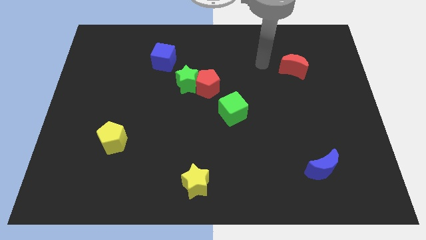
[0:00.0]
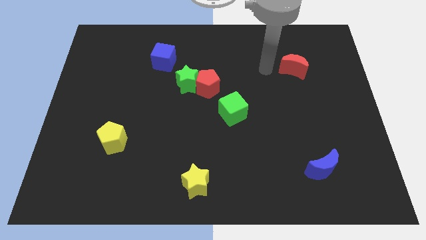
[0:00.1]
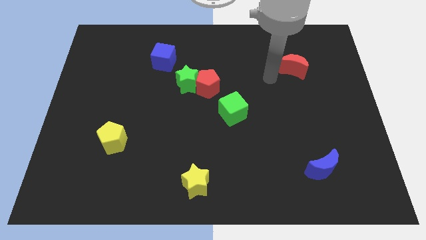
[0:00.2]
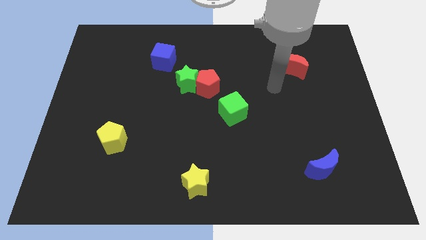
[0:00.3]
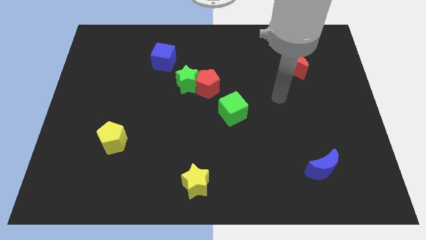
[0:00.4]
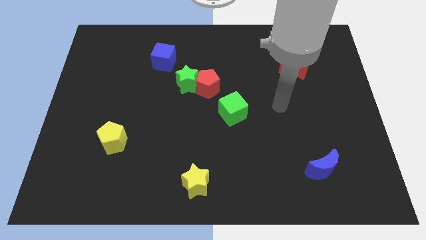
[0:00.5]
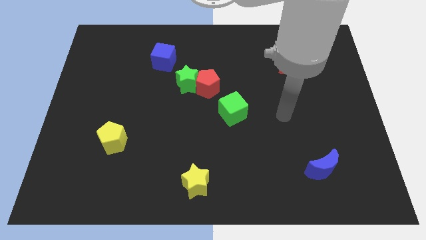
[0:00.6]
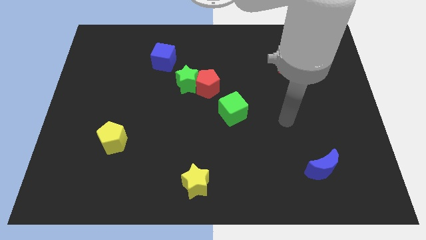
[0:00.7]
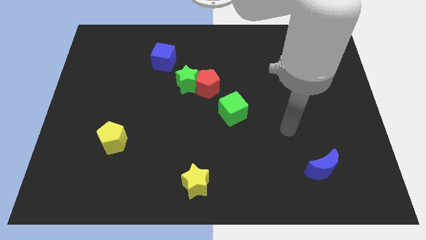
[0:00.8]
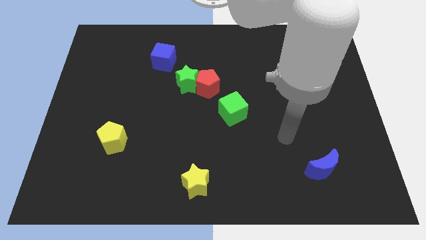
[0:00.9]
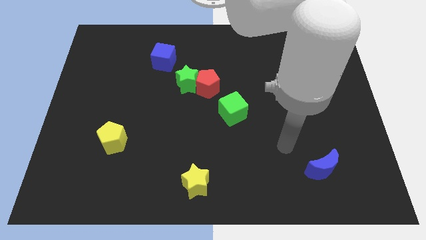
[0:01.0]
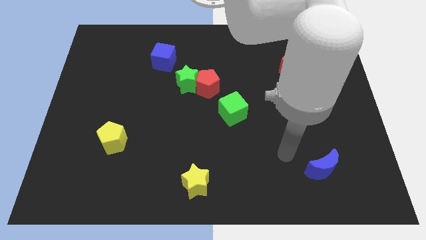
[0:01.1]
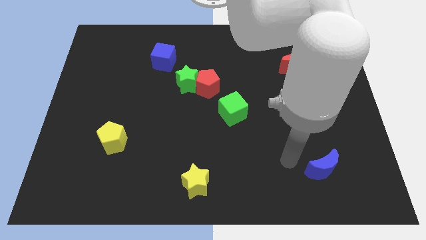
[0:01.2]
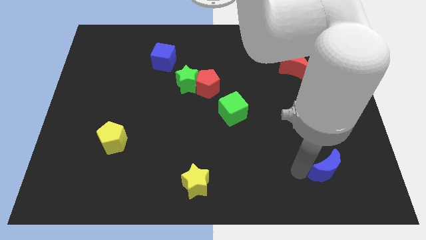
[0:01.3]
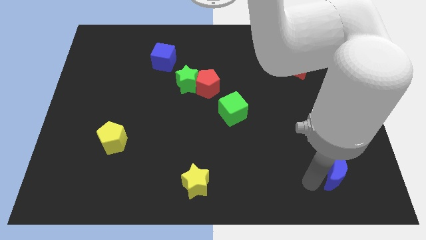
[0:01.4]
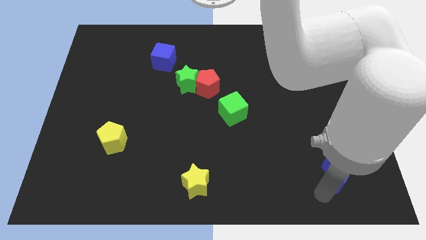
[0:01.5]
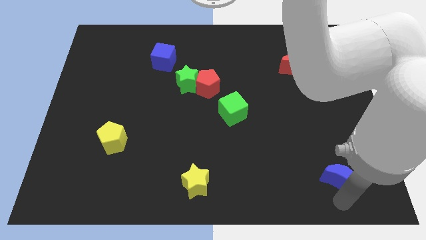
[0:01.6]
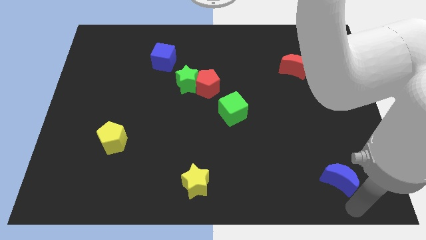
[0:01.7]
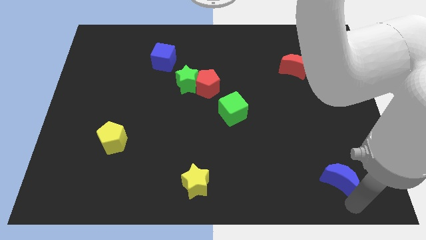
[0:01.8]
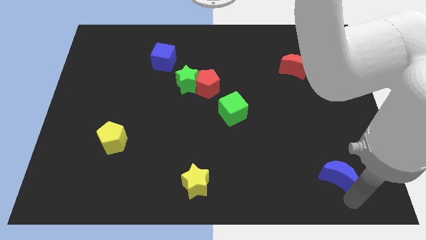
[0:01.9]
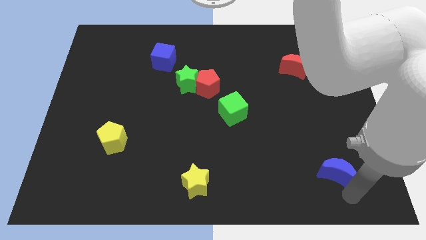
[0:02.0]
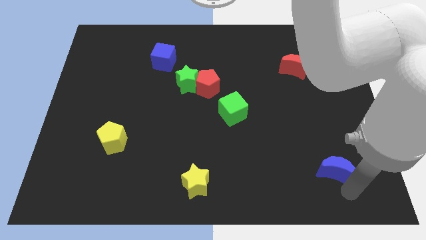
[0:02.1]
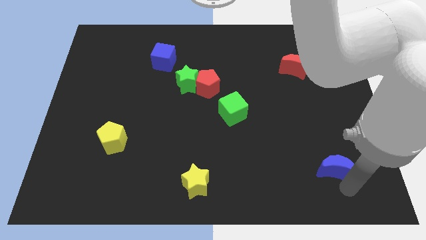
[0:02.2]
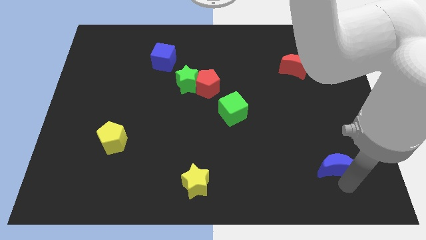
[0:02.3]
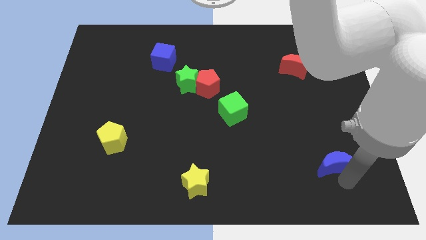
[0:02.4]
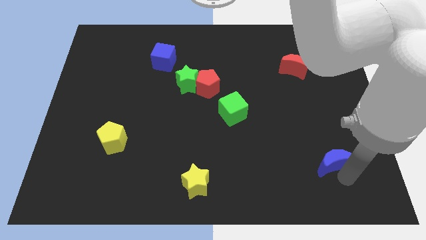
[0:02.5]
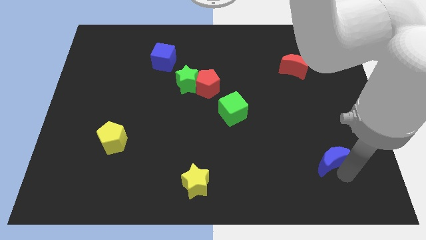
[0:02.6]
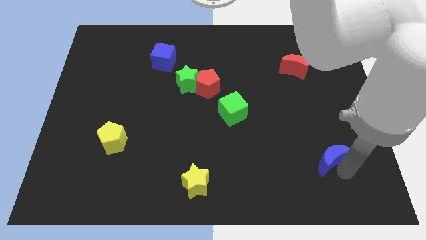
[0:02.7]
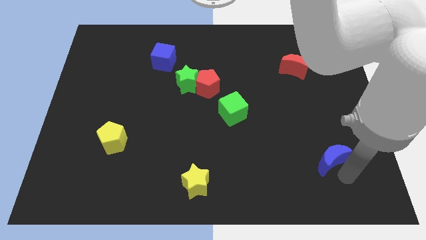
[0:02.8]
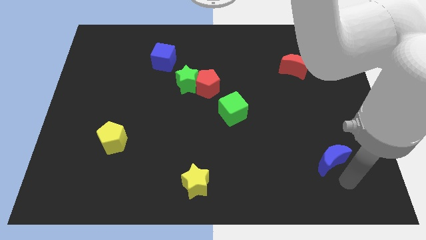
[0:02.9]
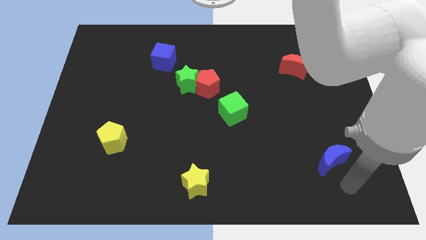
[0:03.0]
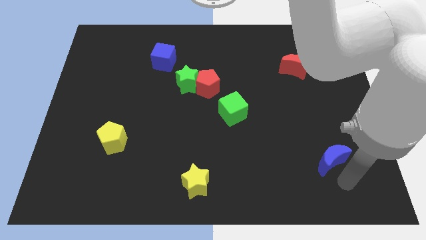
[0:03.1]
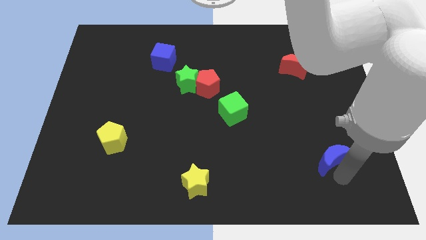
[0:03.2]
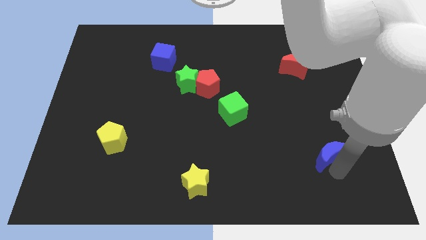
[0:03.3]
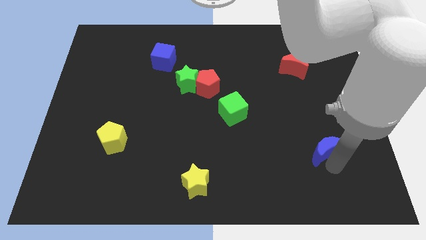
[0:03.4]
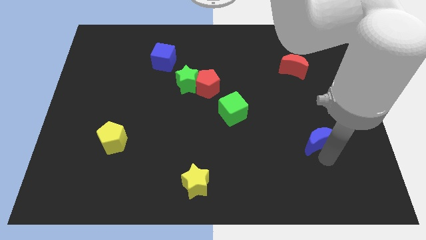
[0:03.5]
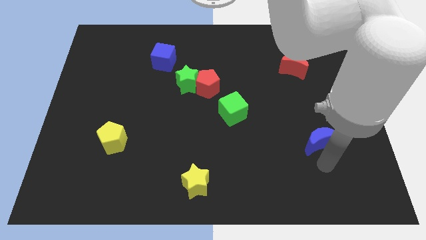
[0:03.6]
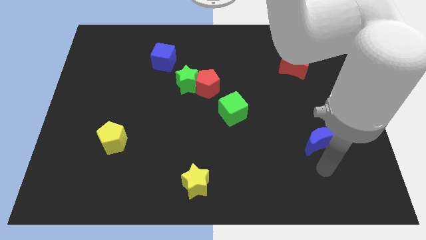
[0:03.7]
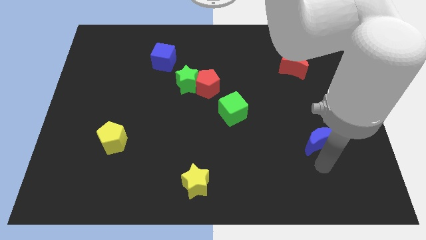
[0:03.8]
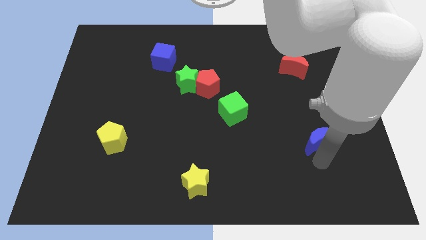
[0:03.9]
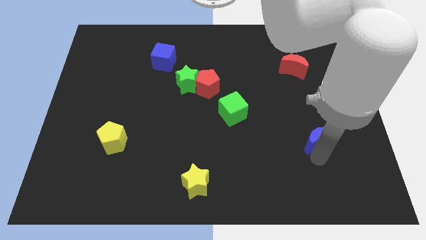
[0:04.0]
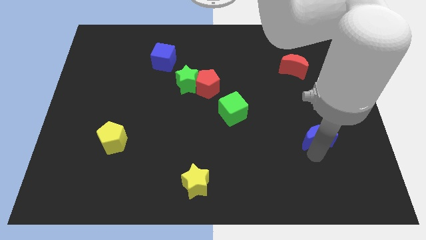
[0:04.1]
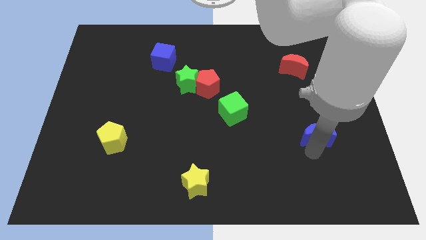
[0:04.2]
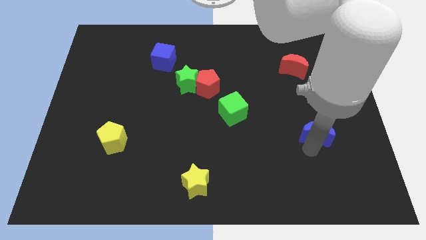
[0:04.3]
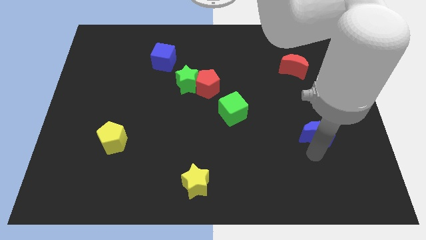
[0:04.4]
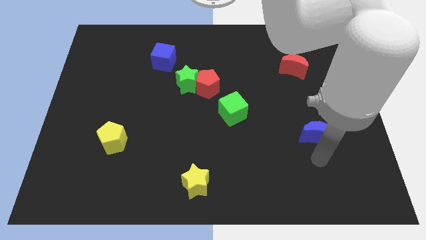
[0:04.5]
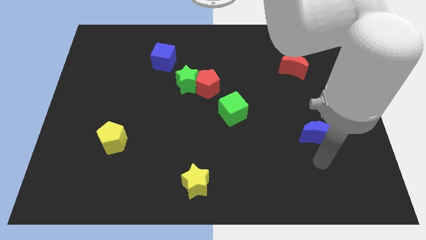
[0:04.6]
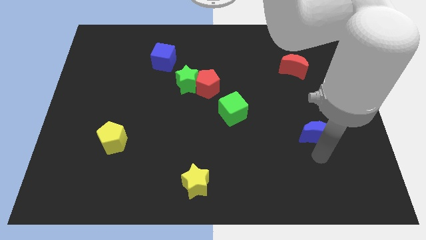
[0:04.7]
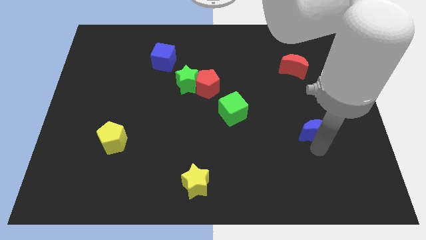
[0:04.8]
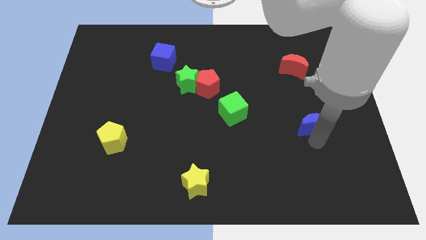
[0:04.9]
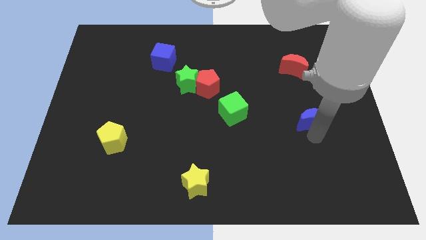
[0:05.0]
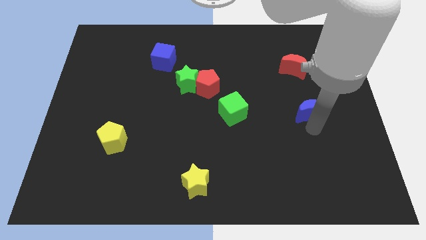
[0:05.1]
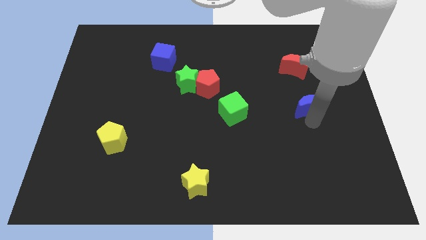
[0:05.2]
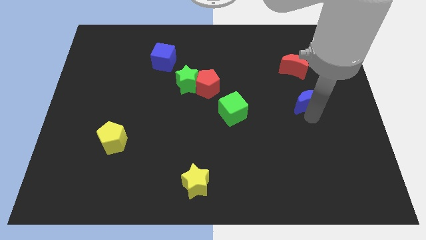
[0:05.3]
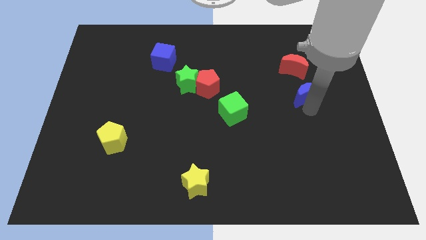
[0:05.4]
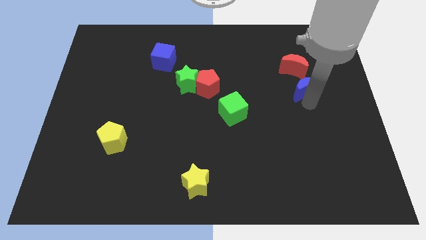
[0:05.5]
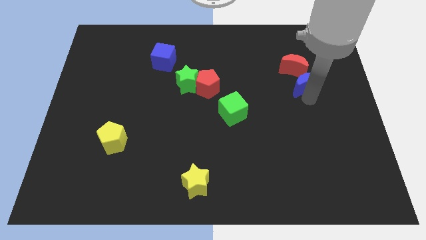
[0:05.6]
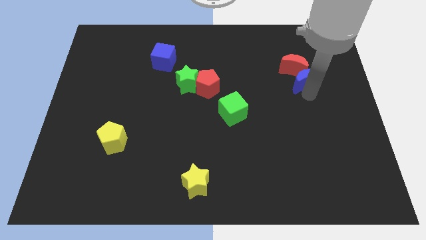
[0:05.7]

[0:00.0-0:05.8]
put the blue moon to the red moon

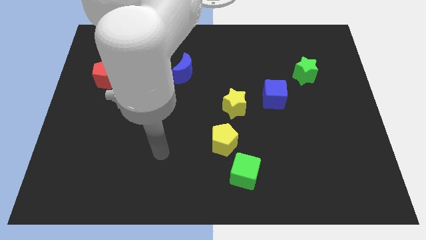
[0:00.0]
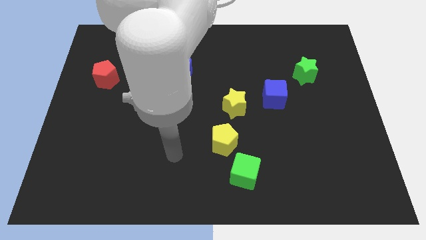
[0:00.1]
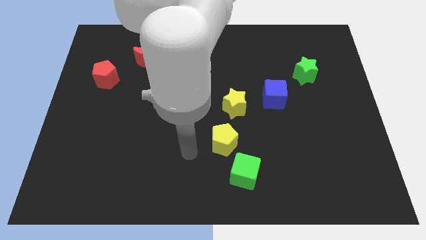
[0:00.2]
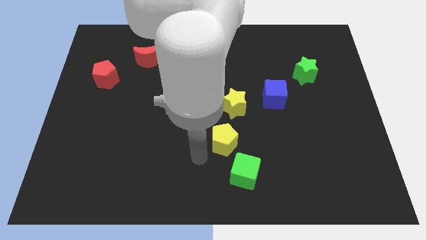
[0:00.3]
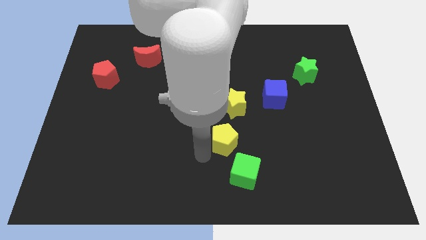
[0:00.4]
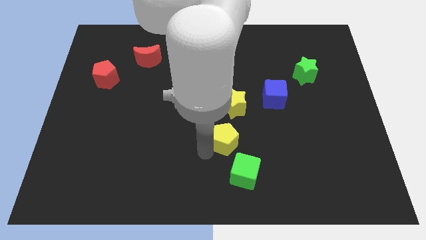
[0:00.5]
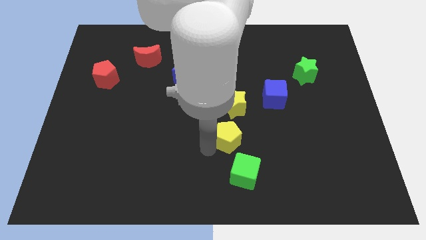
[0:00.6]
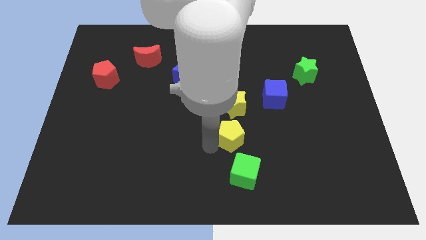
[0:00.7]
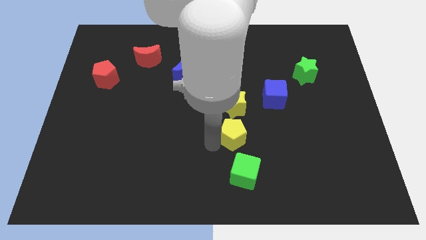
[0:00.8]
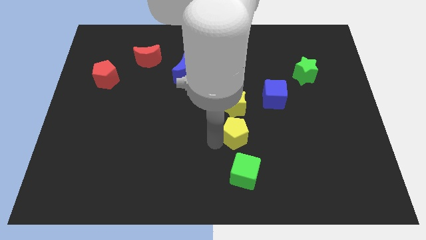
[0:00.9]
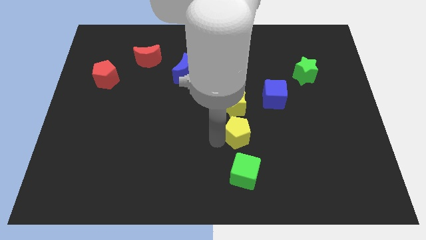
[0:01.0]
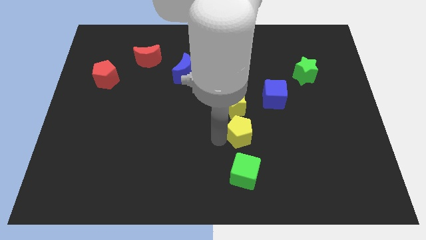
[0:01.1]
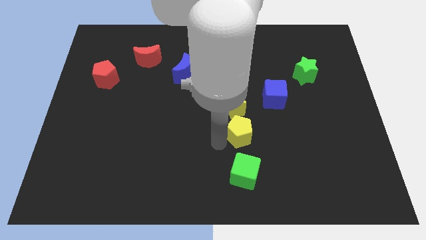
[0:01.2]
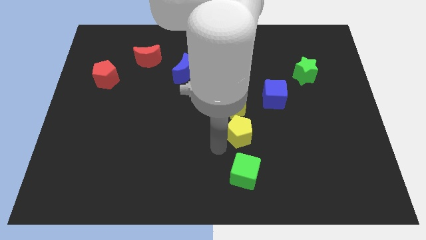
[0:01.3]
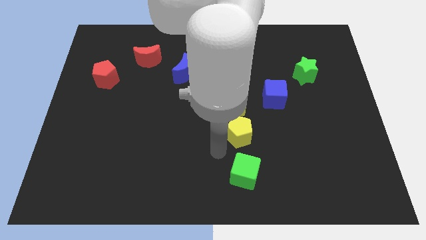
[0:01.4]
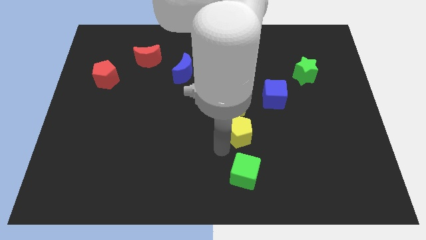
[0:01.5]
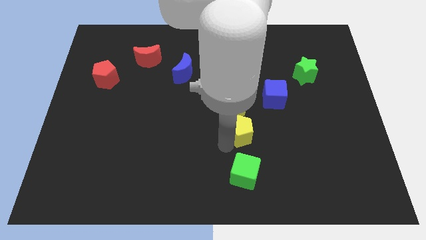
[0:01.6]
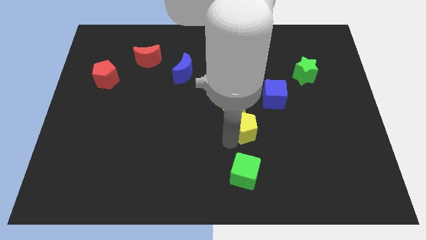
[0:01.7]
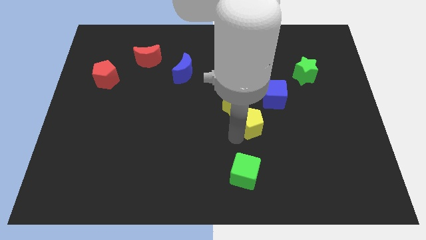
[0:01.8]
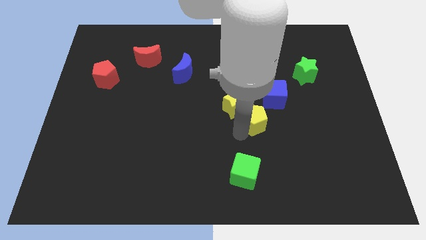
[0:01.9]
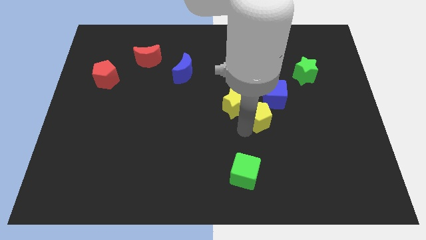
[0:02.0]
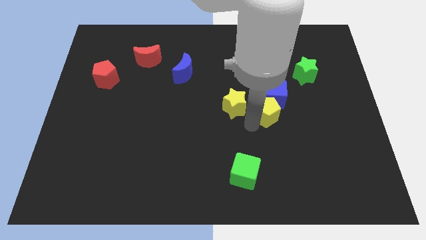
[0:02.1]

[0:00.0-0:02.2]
move the yellow pentagon towards the blue cube
